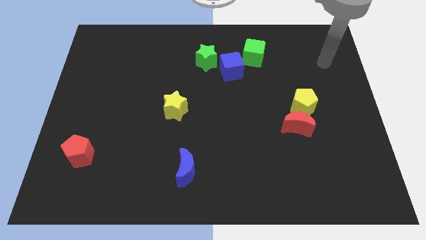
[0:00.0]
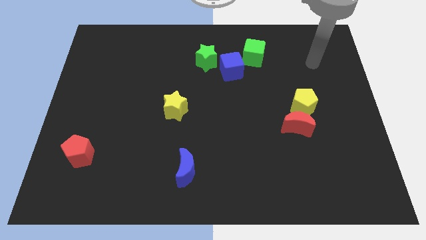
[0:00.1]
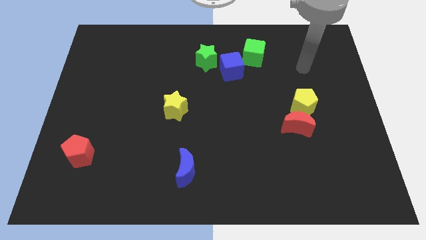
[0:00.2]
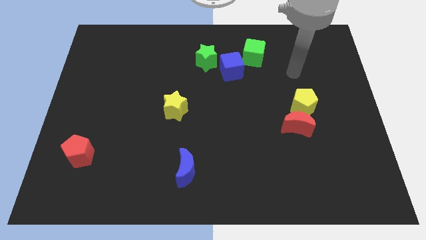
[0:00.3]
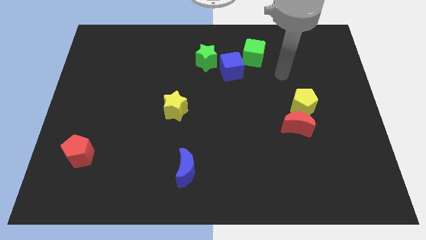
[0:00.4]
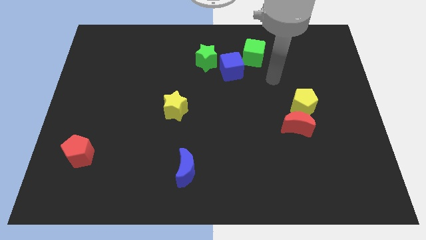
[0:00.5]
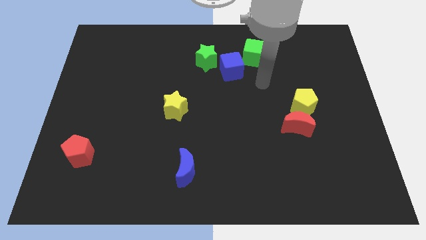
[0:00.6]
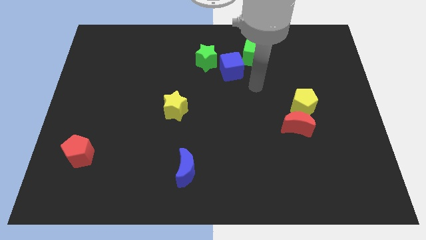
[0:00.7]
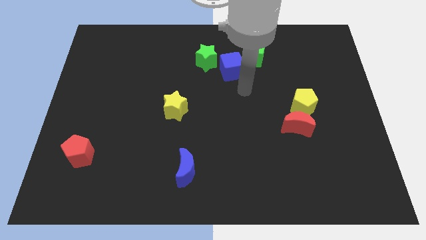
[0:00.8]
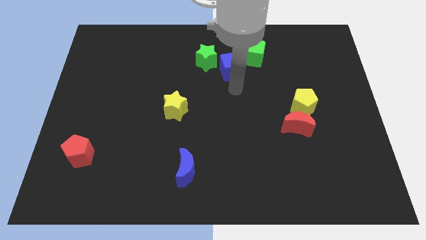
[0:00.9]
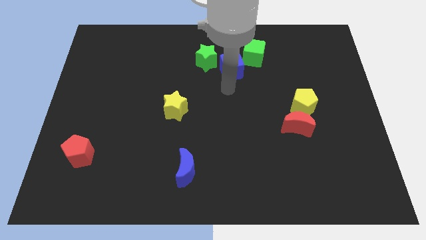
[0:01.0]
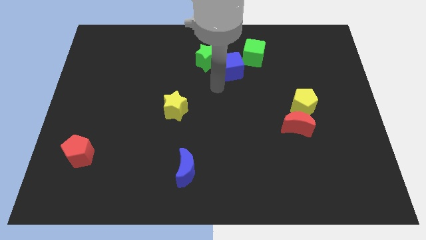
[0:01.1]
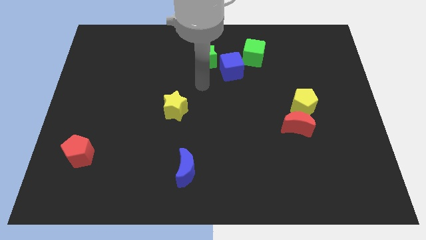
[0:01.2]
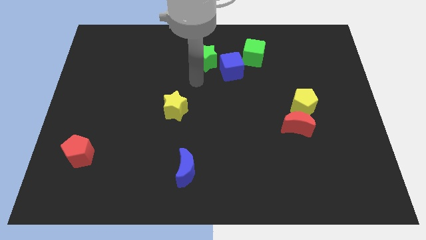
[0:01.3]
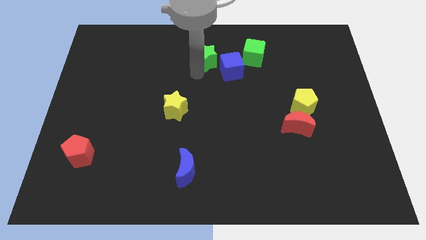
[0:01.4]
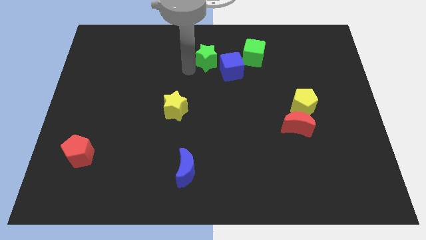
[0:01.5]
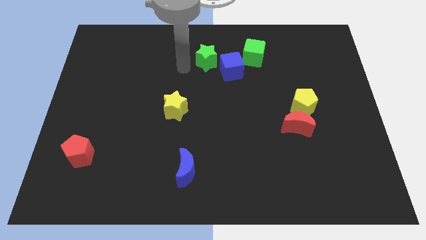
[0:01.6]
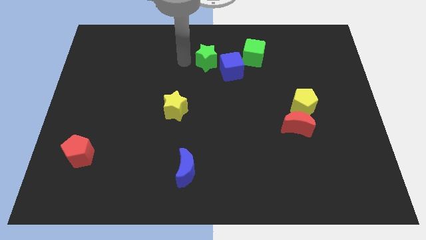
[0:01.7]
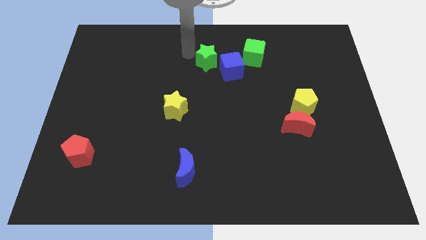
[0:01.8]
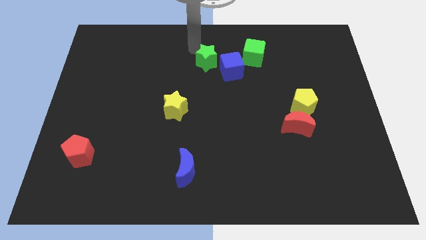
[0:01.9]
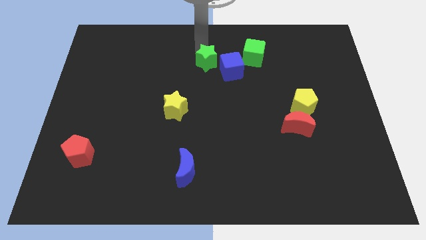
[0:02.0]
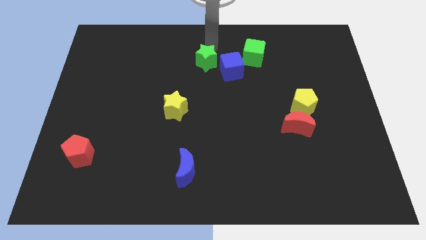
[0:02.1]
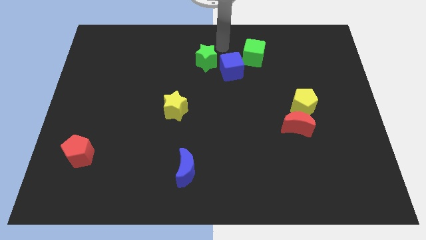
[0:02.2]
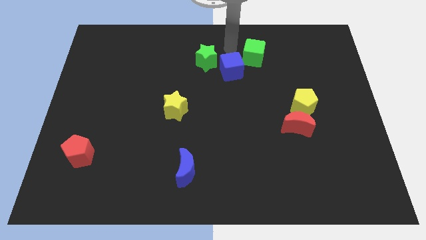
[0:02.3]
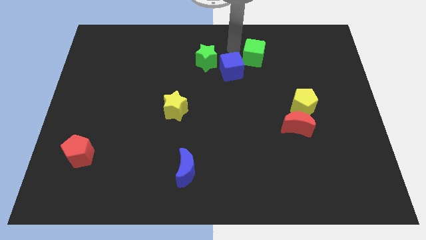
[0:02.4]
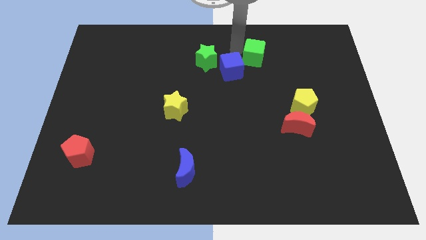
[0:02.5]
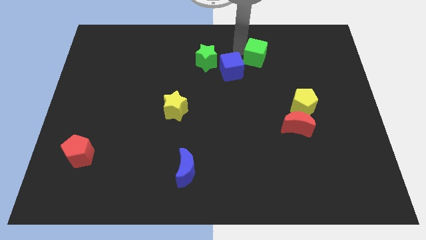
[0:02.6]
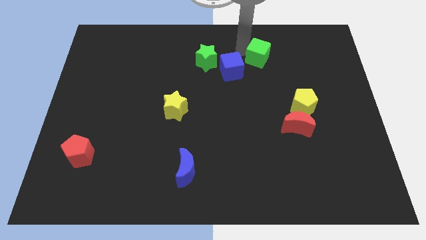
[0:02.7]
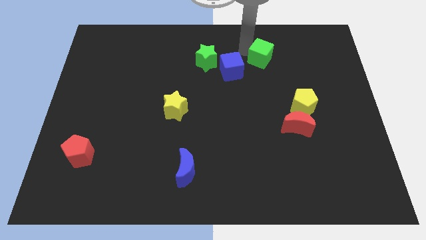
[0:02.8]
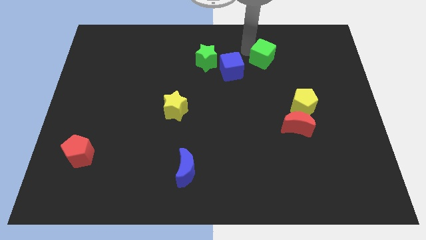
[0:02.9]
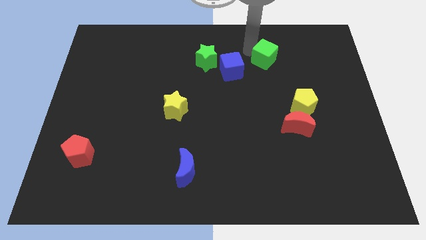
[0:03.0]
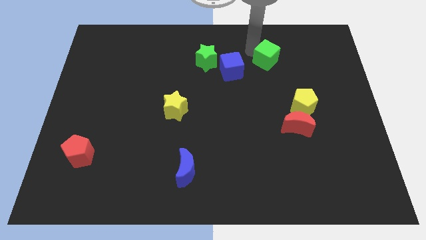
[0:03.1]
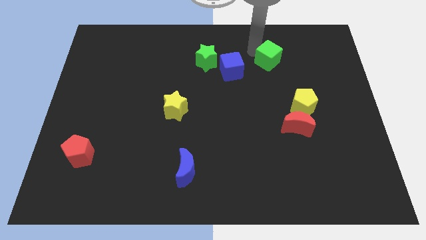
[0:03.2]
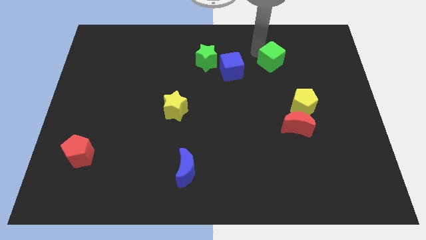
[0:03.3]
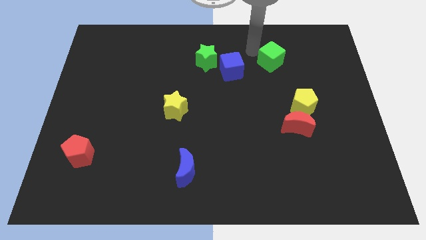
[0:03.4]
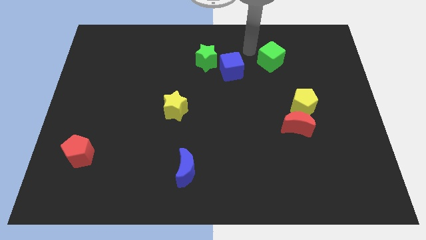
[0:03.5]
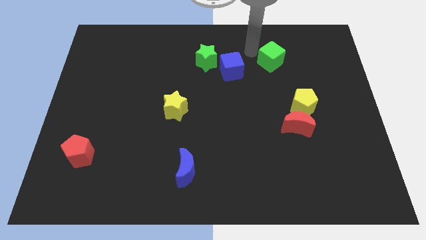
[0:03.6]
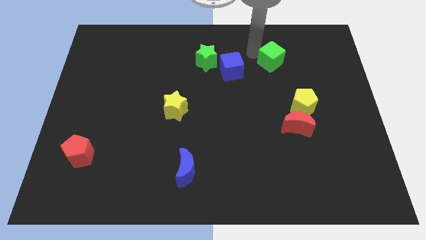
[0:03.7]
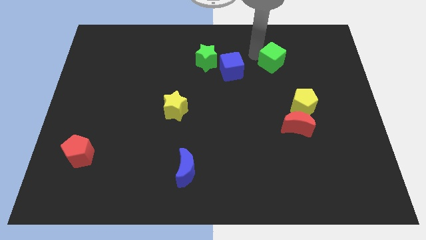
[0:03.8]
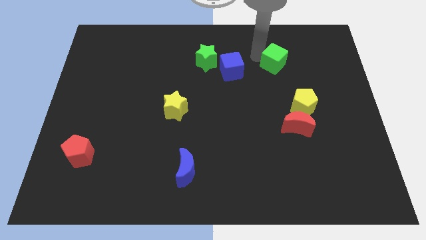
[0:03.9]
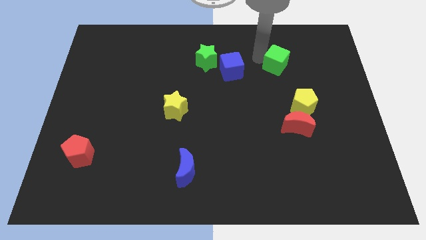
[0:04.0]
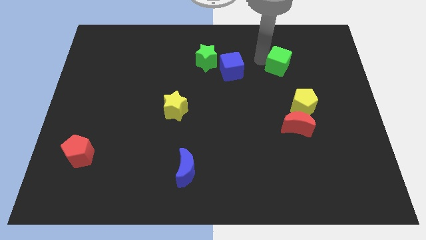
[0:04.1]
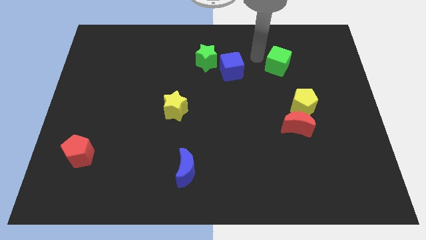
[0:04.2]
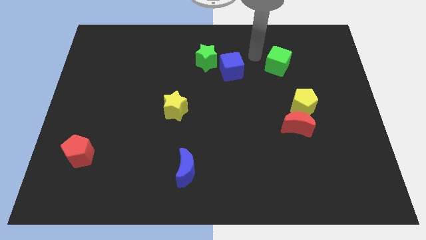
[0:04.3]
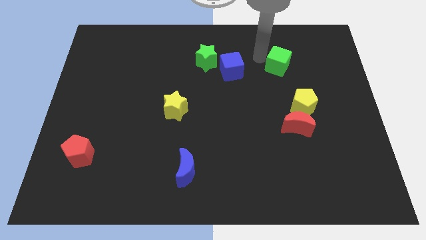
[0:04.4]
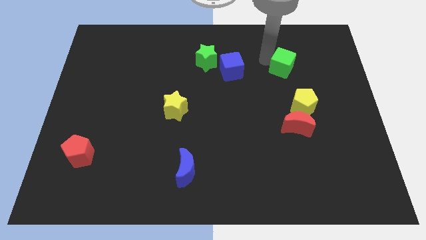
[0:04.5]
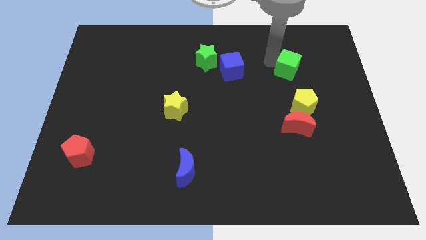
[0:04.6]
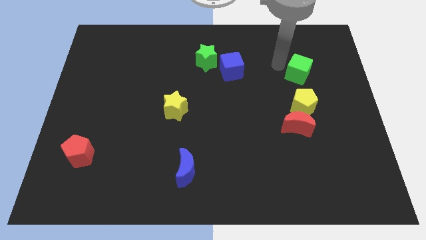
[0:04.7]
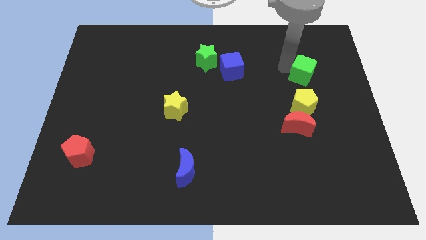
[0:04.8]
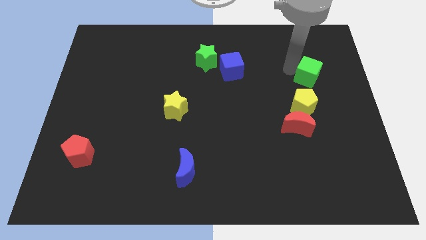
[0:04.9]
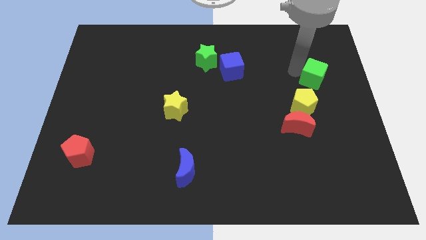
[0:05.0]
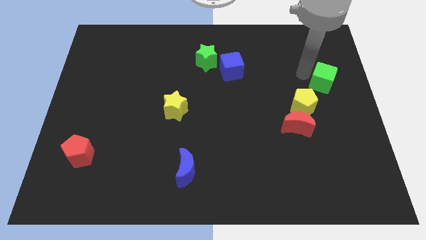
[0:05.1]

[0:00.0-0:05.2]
put the green cube to the right side

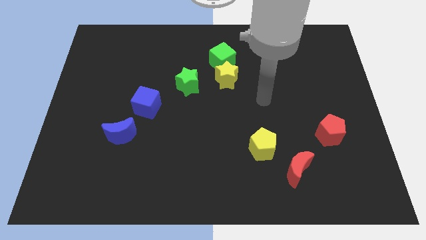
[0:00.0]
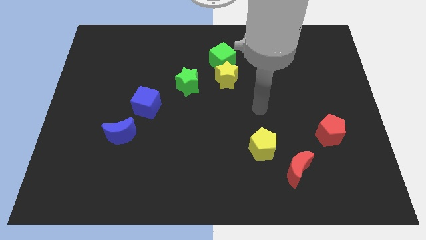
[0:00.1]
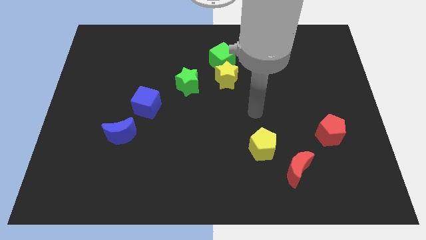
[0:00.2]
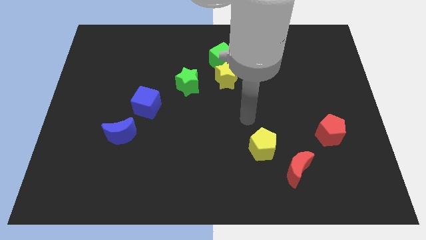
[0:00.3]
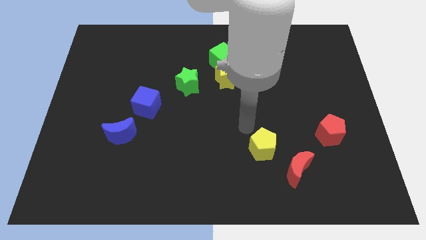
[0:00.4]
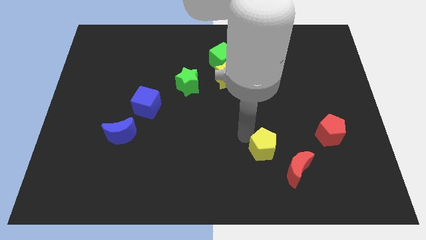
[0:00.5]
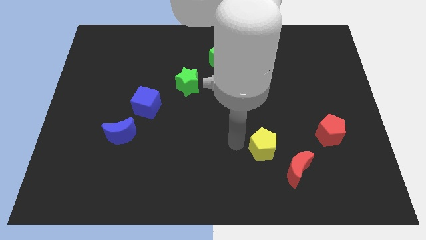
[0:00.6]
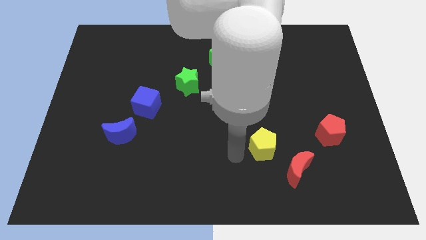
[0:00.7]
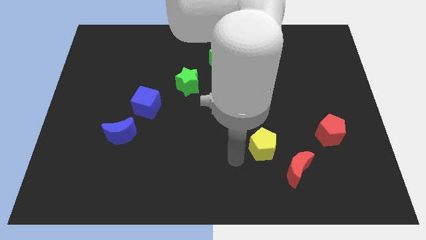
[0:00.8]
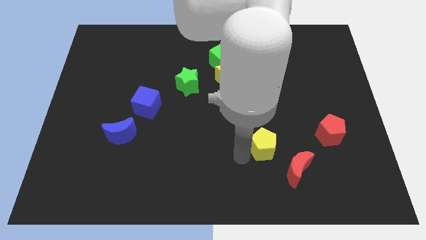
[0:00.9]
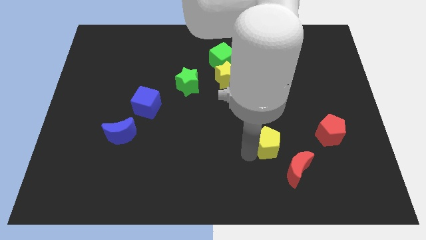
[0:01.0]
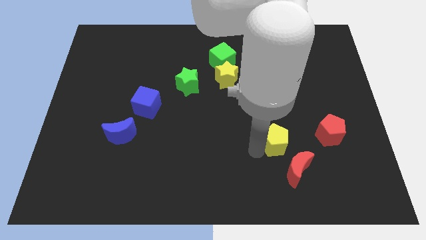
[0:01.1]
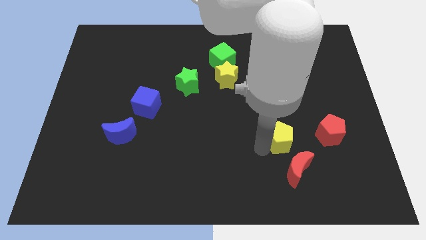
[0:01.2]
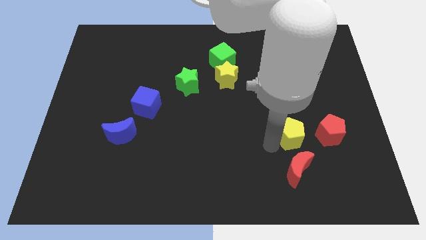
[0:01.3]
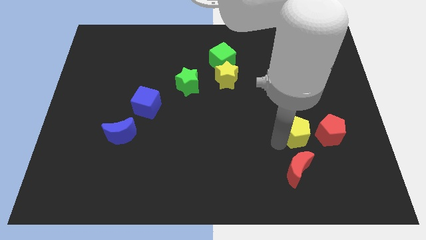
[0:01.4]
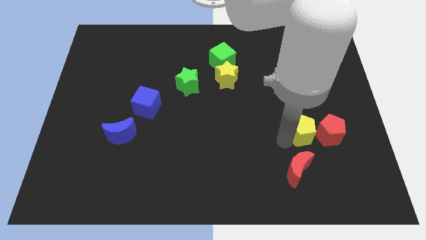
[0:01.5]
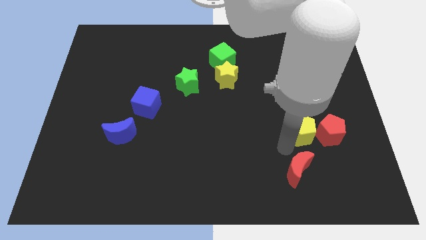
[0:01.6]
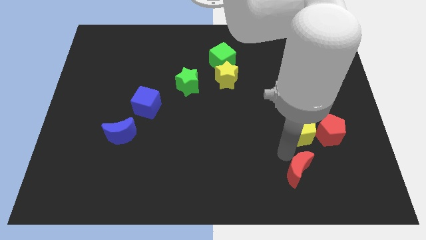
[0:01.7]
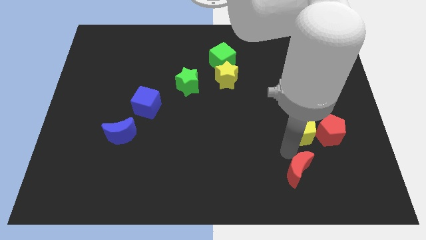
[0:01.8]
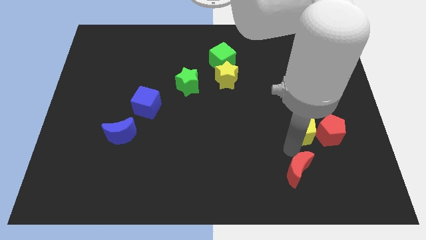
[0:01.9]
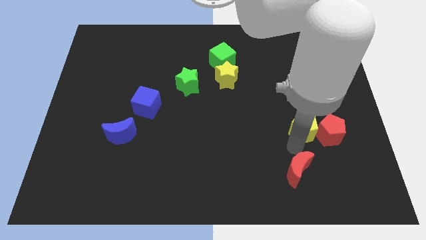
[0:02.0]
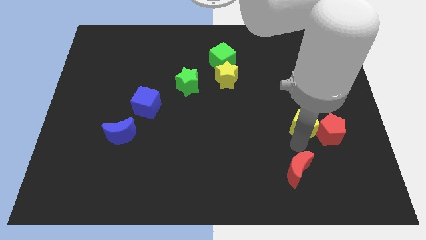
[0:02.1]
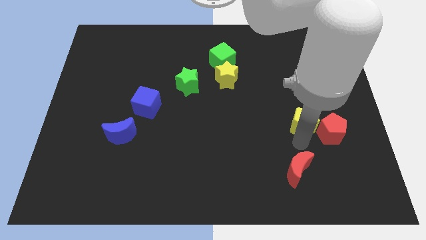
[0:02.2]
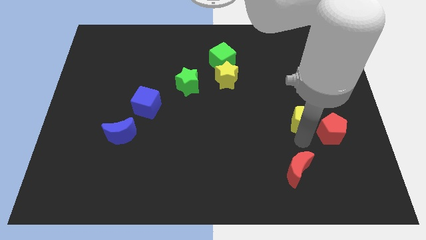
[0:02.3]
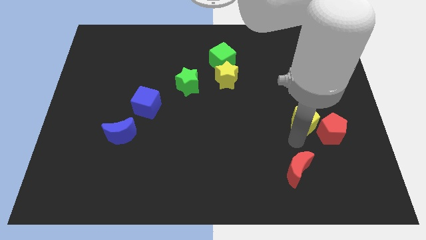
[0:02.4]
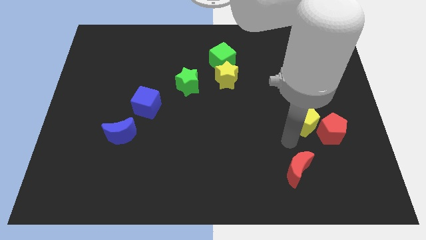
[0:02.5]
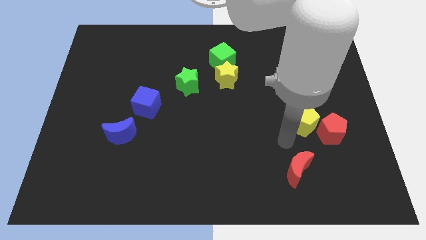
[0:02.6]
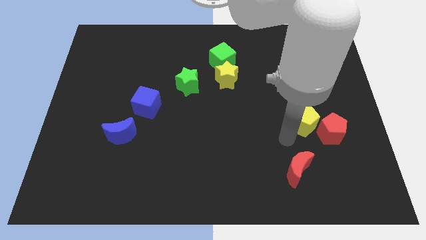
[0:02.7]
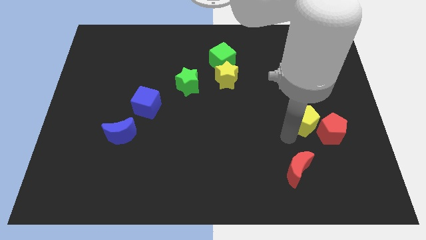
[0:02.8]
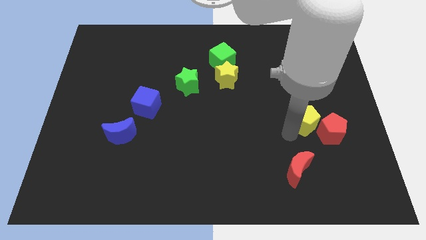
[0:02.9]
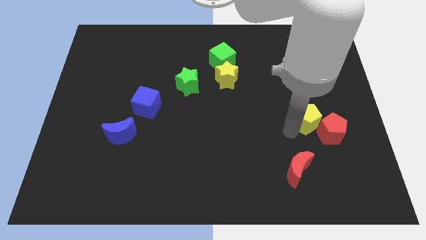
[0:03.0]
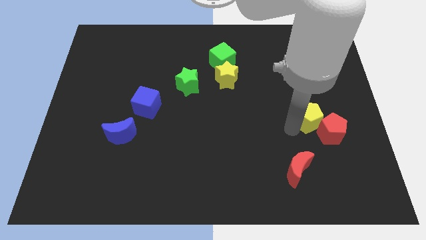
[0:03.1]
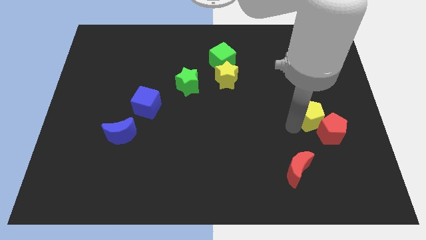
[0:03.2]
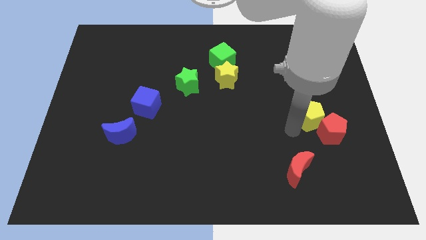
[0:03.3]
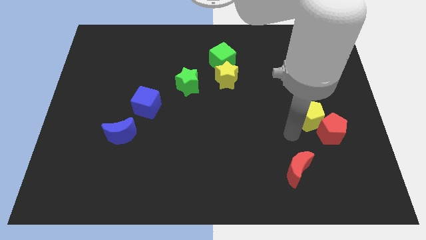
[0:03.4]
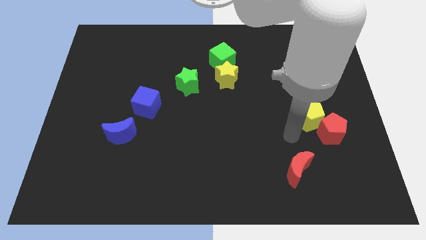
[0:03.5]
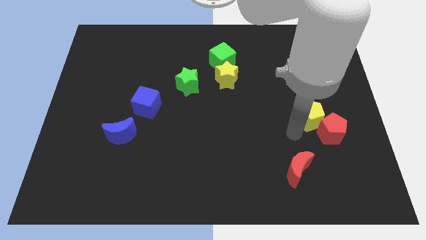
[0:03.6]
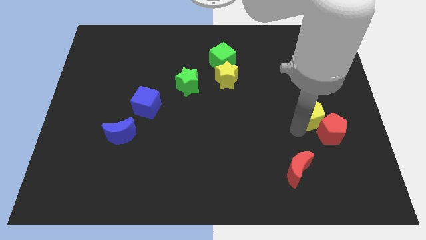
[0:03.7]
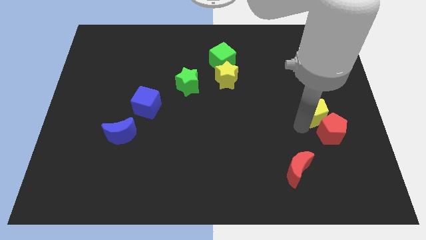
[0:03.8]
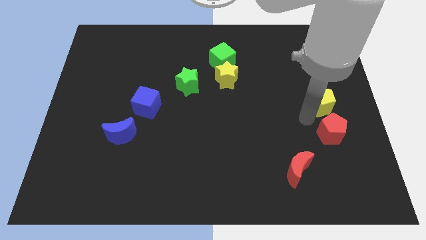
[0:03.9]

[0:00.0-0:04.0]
move the yellow pentagon to the right side
